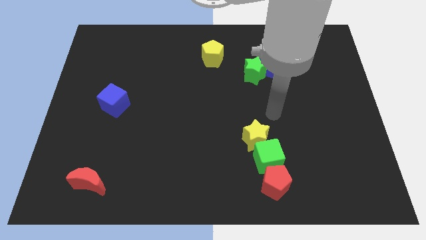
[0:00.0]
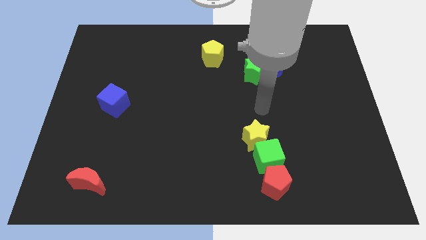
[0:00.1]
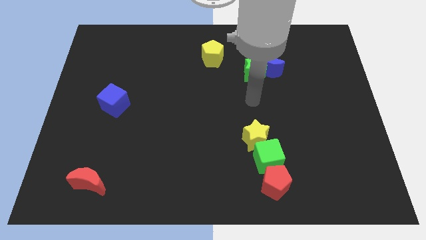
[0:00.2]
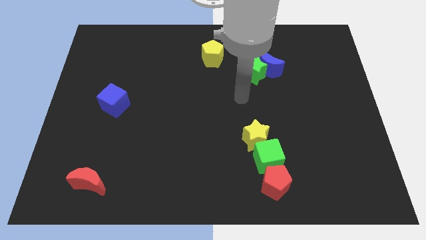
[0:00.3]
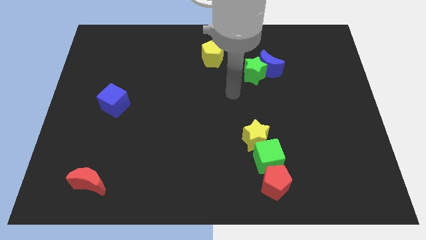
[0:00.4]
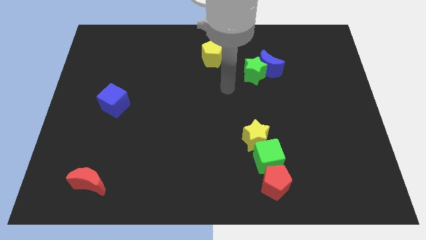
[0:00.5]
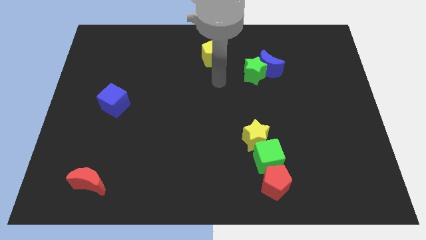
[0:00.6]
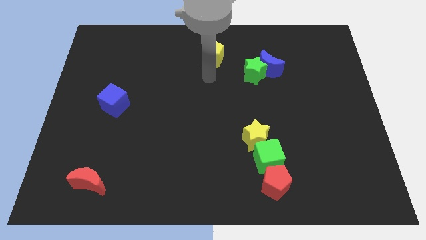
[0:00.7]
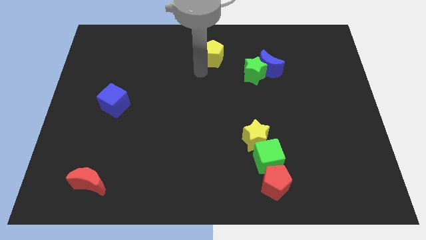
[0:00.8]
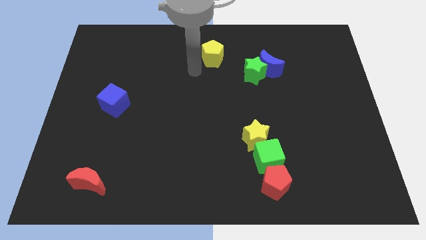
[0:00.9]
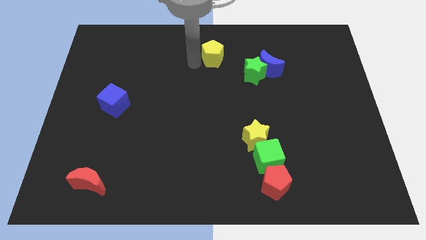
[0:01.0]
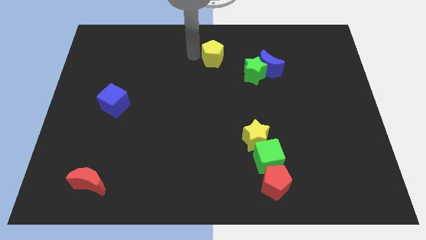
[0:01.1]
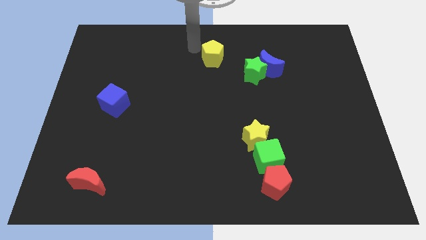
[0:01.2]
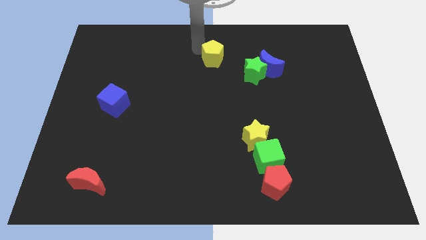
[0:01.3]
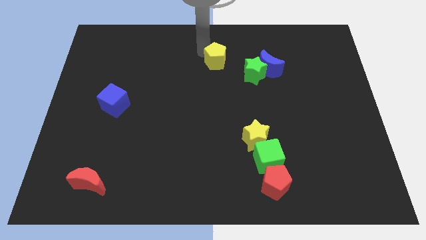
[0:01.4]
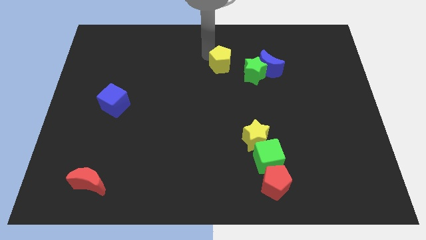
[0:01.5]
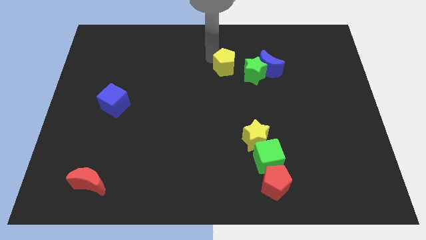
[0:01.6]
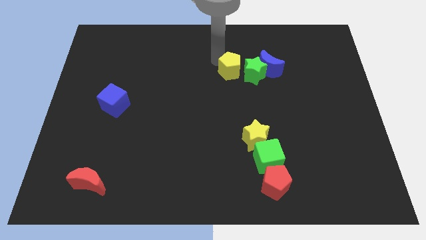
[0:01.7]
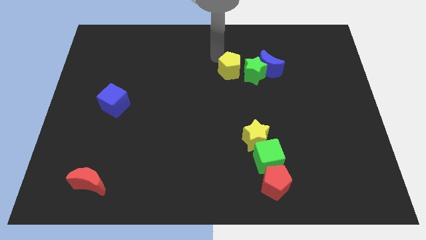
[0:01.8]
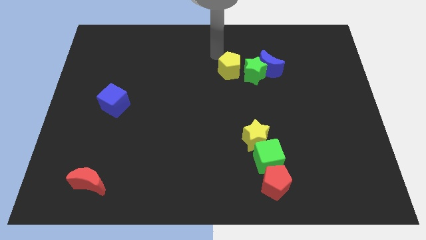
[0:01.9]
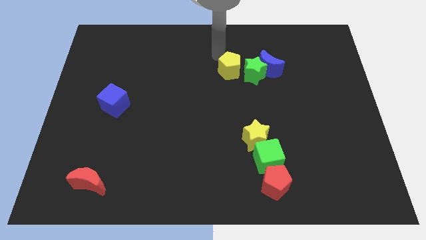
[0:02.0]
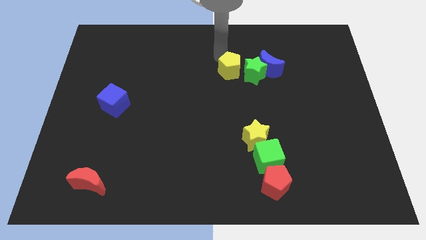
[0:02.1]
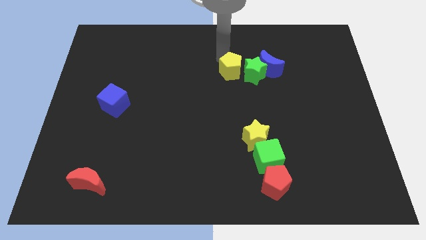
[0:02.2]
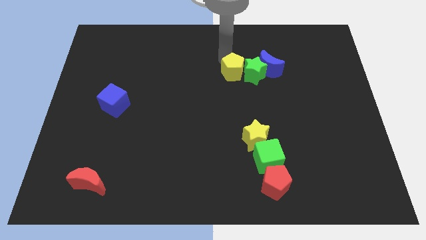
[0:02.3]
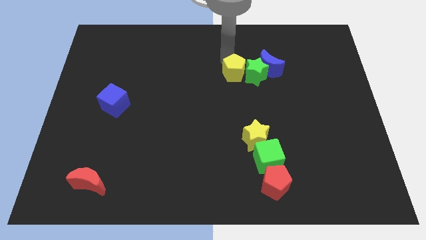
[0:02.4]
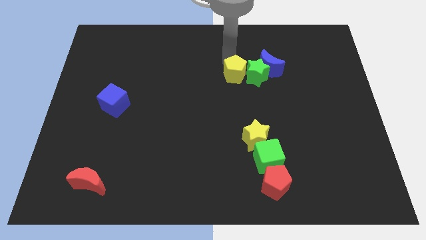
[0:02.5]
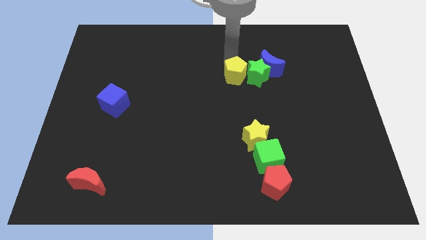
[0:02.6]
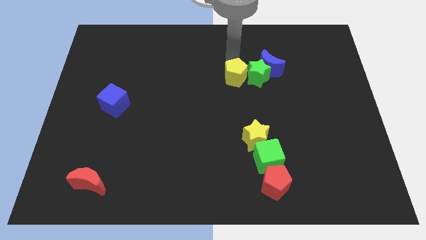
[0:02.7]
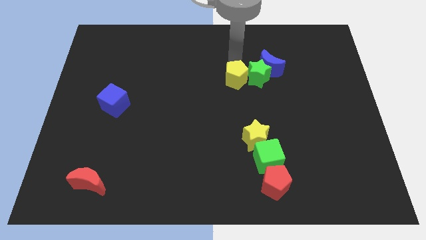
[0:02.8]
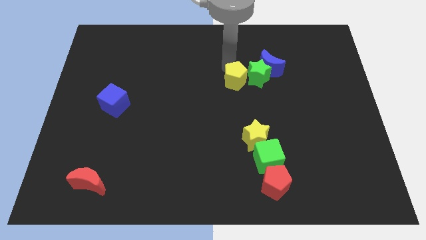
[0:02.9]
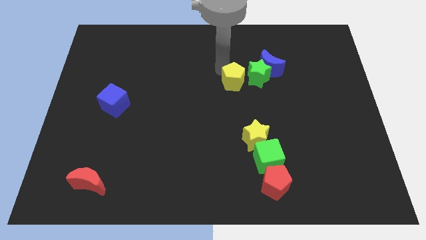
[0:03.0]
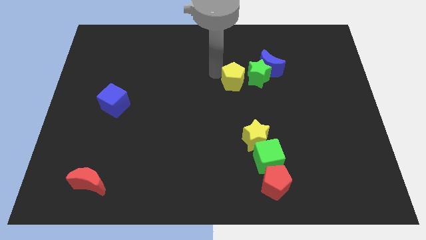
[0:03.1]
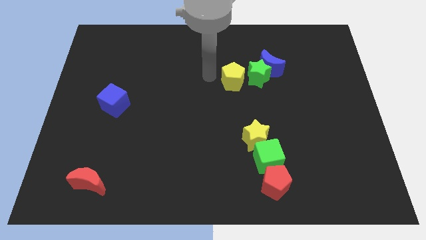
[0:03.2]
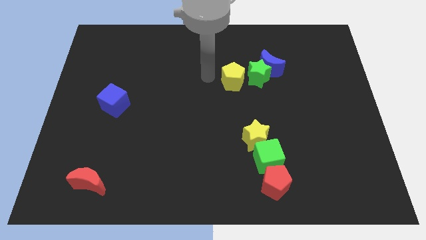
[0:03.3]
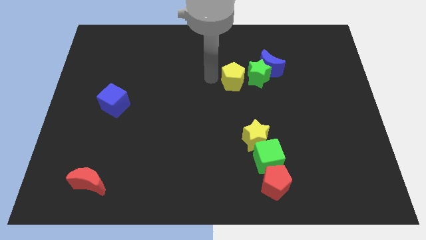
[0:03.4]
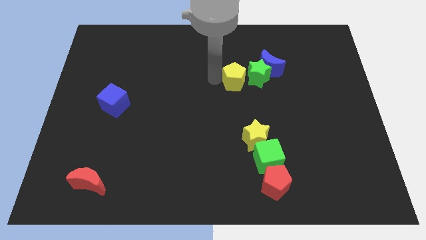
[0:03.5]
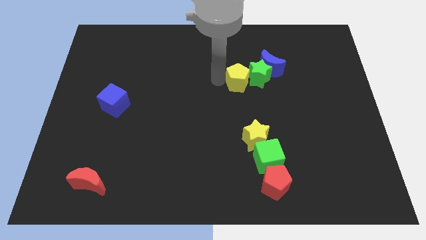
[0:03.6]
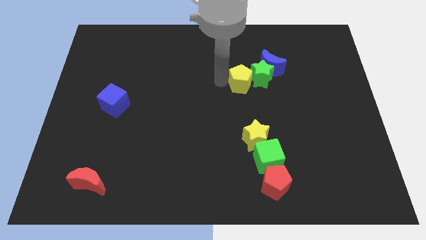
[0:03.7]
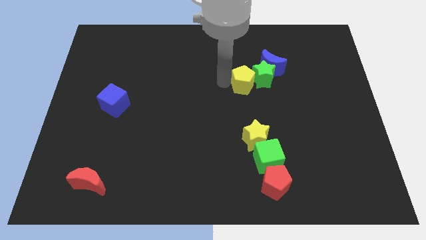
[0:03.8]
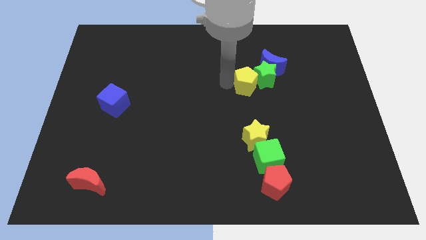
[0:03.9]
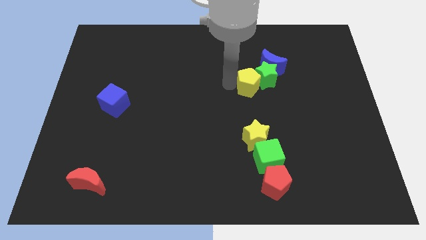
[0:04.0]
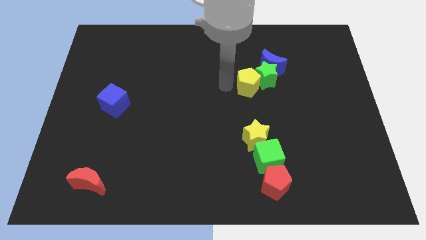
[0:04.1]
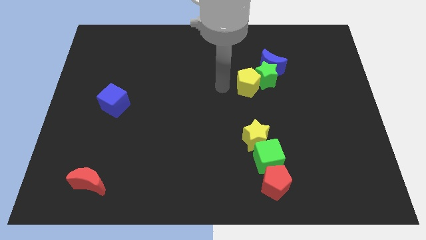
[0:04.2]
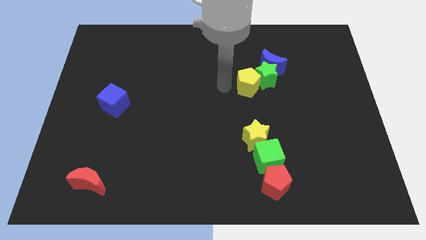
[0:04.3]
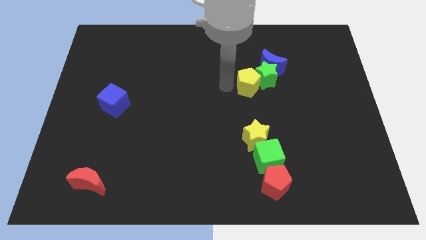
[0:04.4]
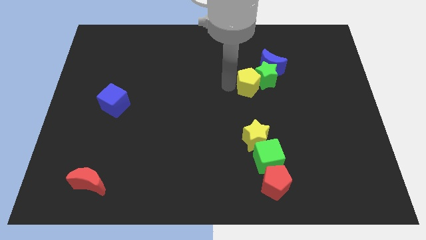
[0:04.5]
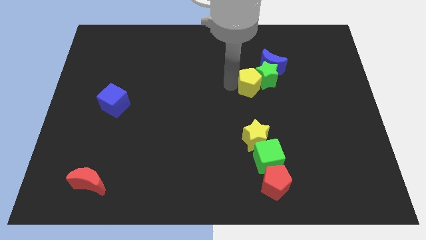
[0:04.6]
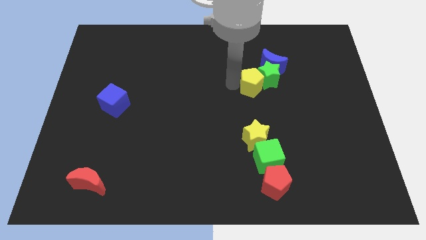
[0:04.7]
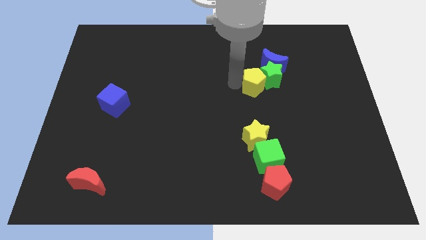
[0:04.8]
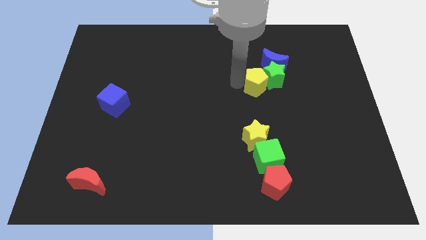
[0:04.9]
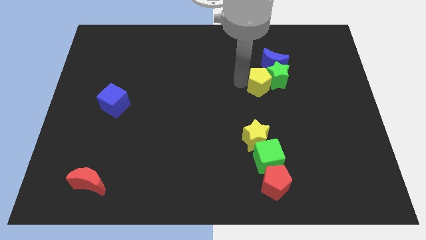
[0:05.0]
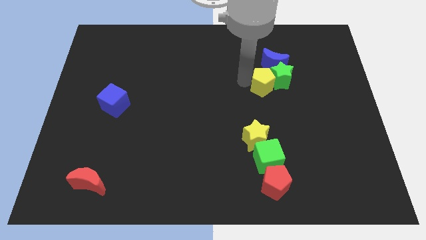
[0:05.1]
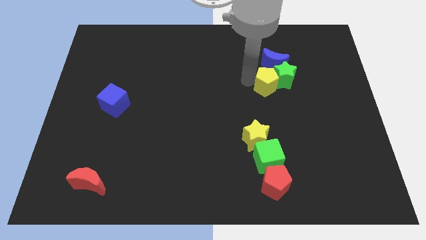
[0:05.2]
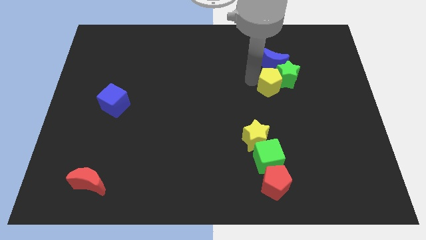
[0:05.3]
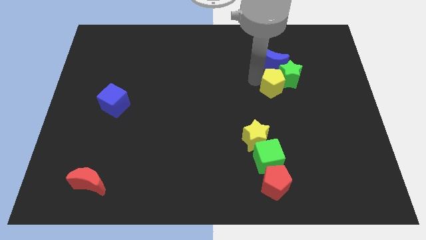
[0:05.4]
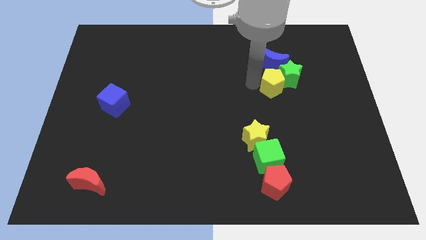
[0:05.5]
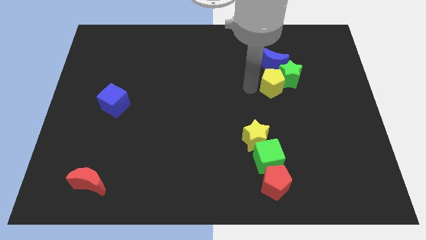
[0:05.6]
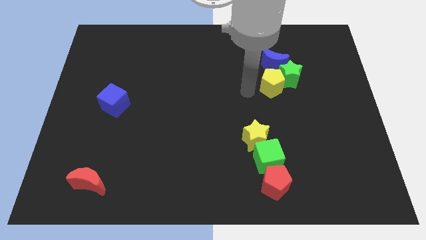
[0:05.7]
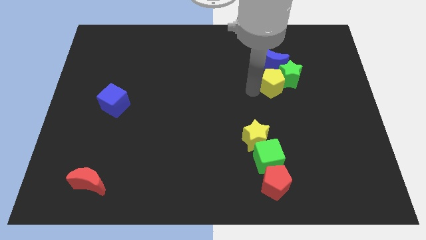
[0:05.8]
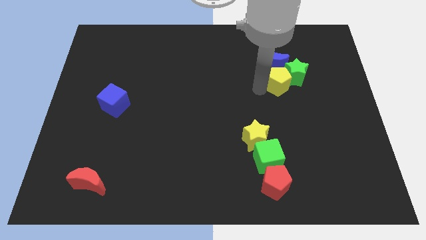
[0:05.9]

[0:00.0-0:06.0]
slide the yellow pentagon diagonally down and to the right of the blue moon

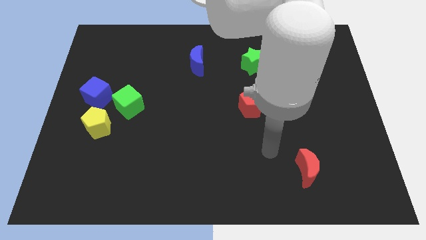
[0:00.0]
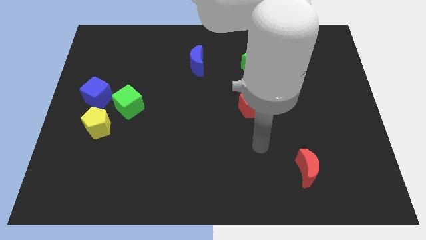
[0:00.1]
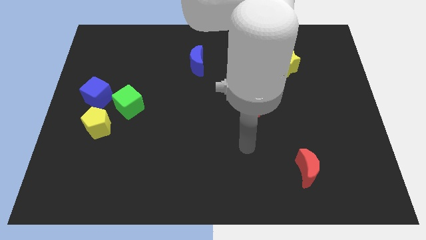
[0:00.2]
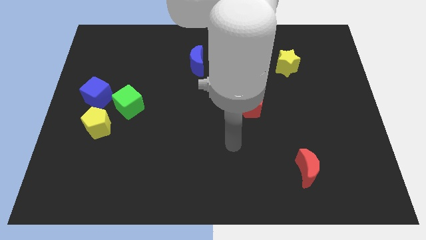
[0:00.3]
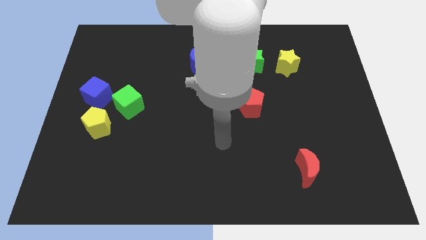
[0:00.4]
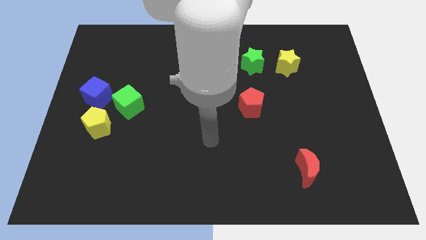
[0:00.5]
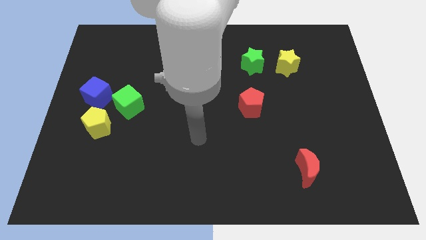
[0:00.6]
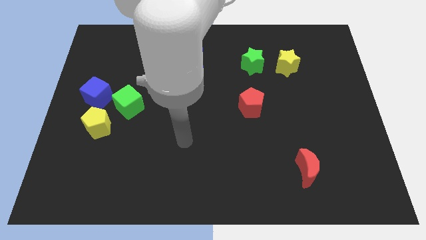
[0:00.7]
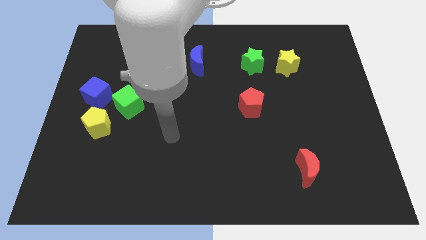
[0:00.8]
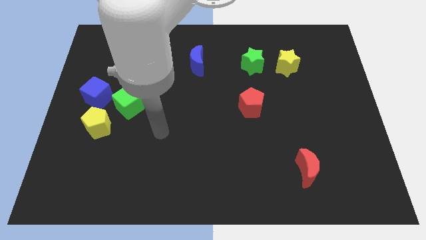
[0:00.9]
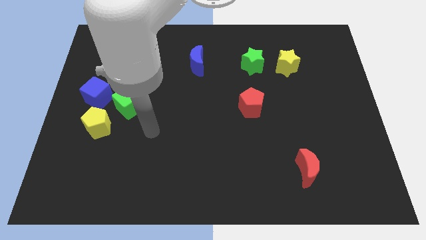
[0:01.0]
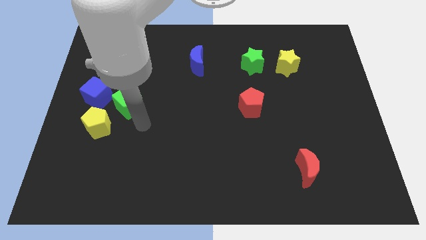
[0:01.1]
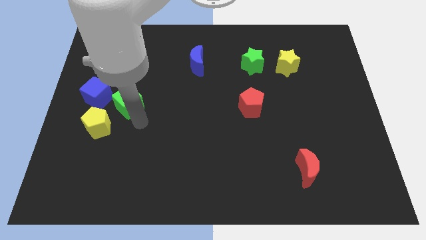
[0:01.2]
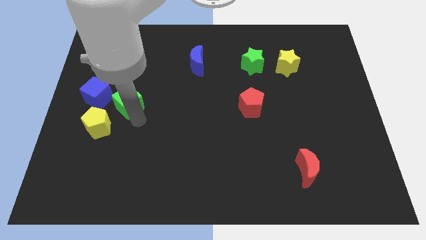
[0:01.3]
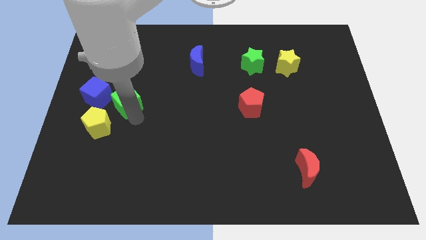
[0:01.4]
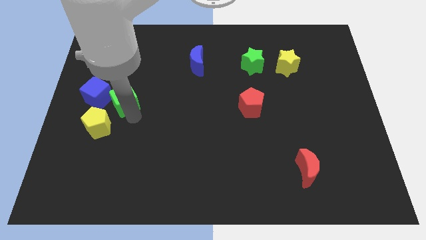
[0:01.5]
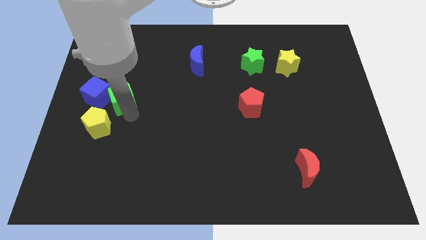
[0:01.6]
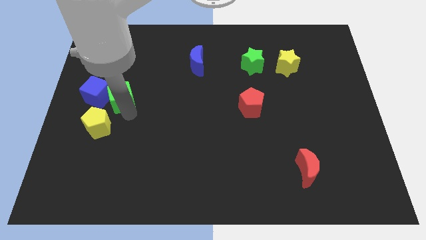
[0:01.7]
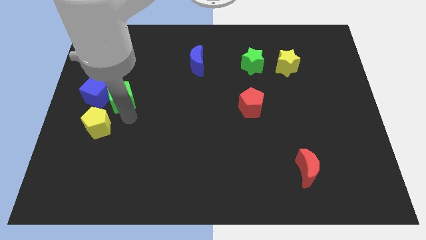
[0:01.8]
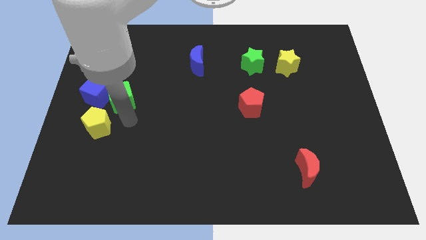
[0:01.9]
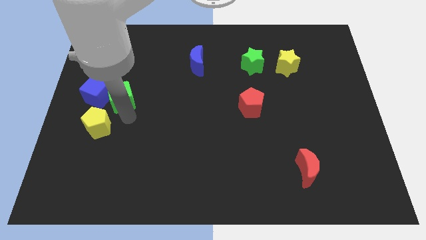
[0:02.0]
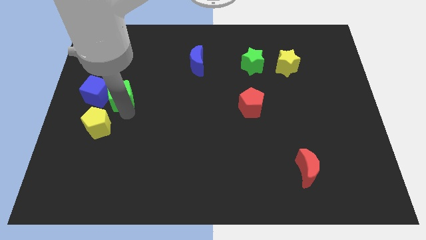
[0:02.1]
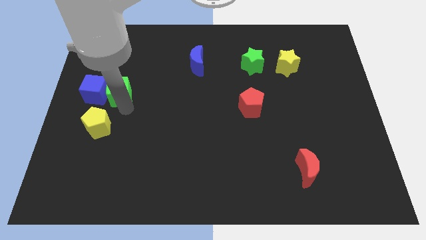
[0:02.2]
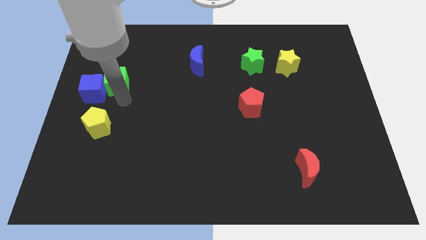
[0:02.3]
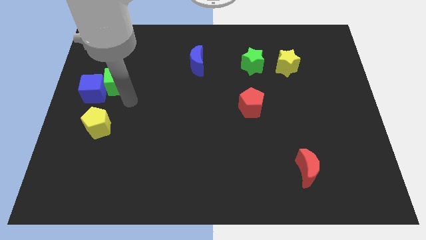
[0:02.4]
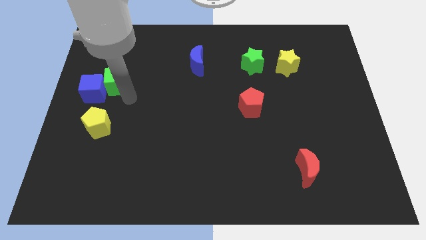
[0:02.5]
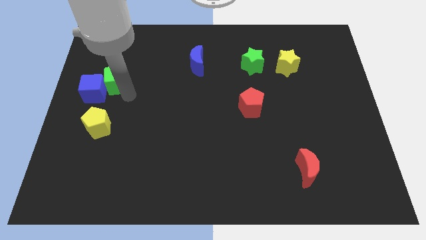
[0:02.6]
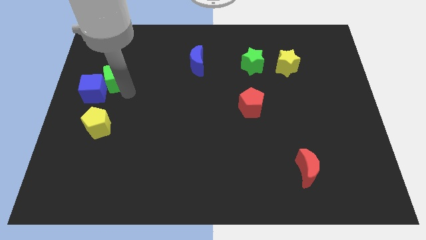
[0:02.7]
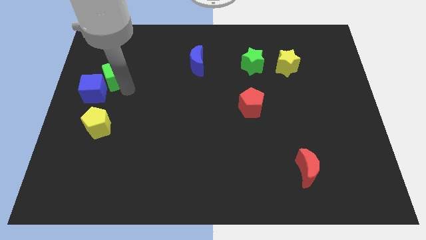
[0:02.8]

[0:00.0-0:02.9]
slide the green cube above the blue cube
